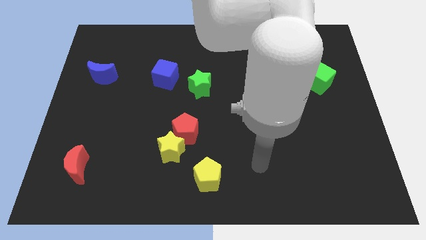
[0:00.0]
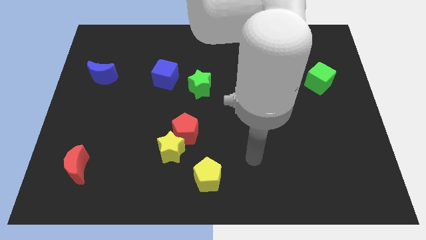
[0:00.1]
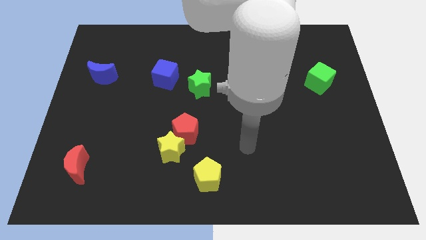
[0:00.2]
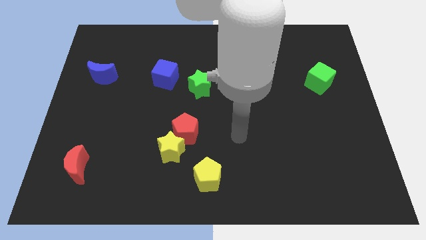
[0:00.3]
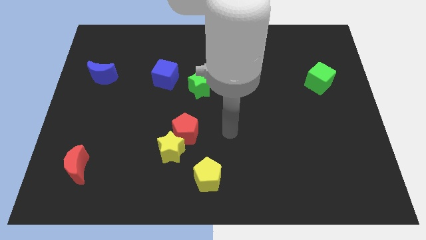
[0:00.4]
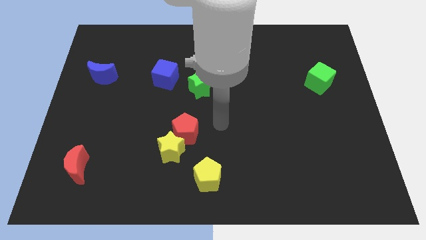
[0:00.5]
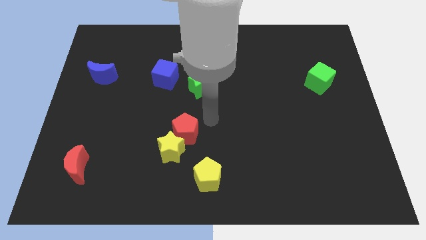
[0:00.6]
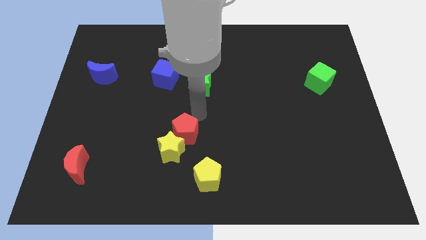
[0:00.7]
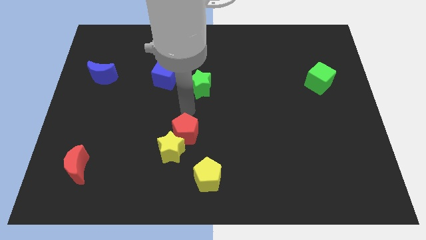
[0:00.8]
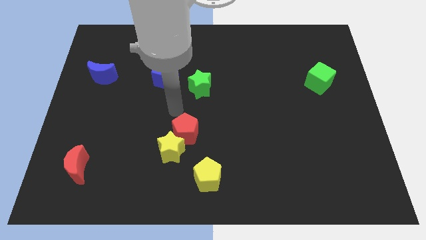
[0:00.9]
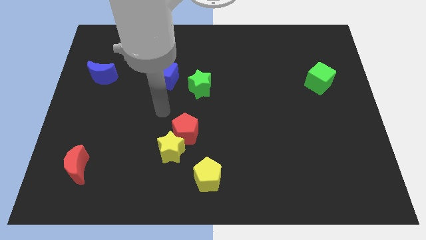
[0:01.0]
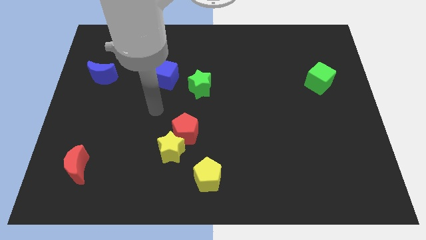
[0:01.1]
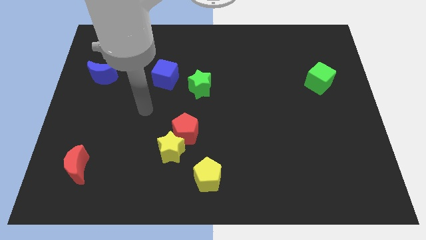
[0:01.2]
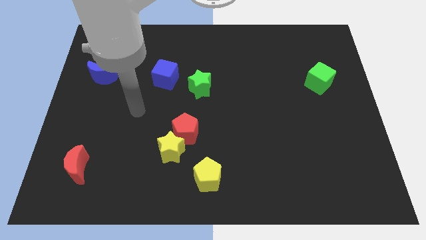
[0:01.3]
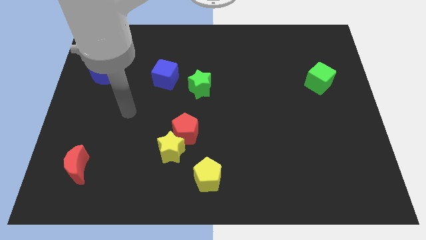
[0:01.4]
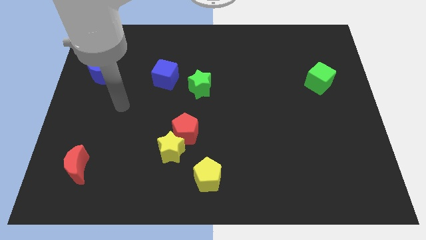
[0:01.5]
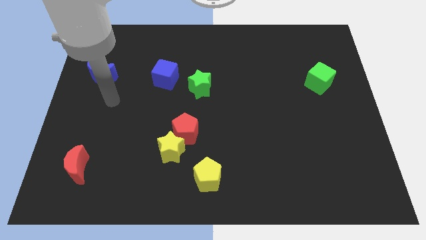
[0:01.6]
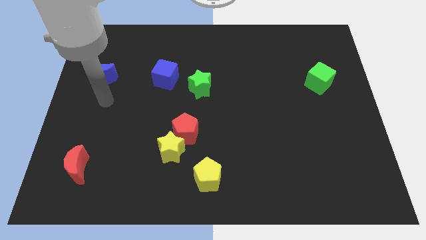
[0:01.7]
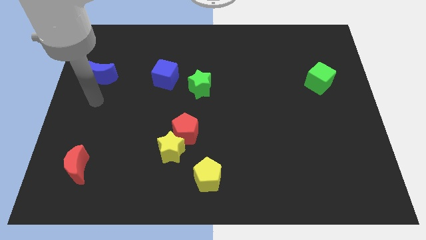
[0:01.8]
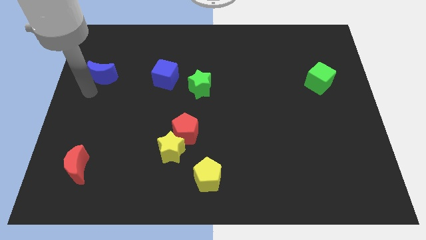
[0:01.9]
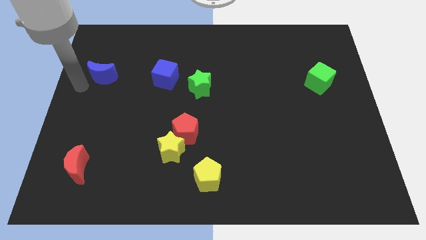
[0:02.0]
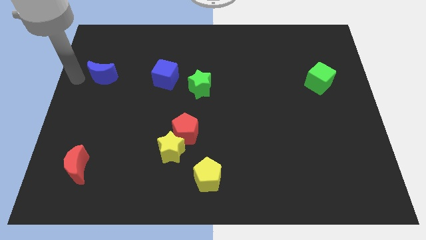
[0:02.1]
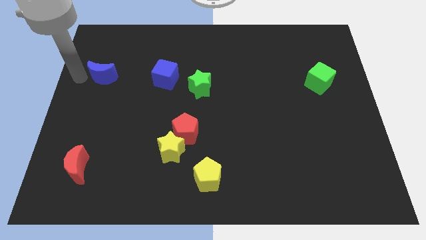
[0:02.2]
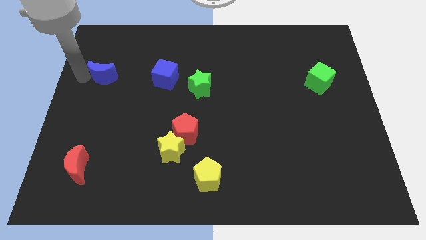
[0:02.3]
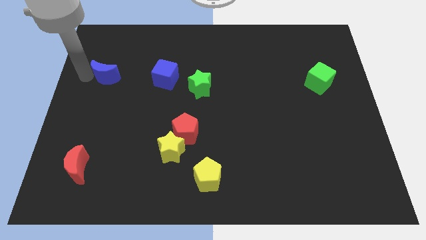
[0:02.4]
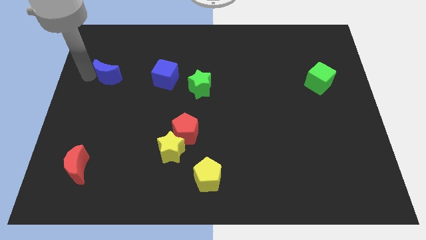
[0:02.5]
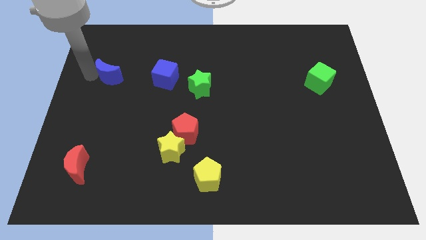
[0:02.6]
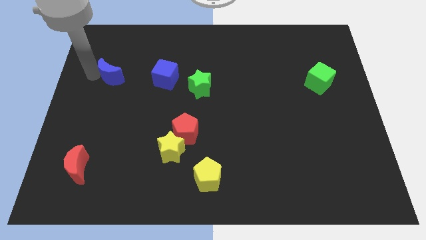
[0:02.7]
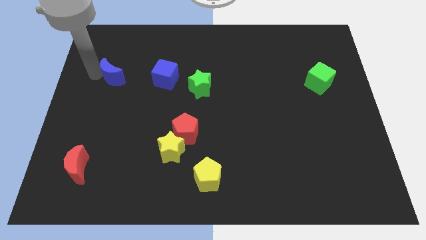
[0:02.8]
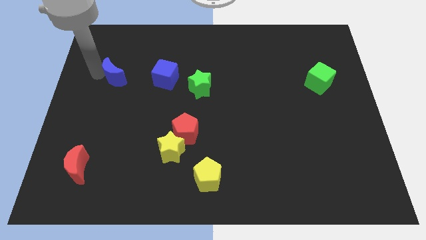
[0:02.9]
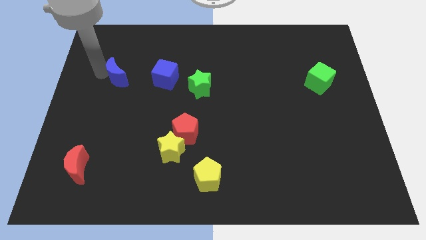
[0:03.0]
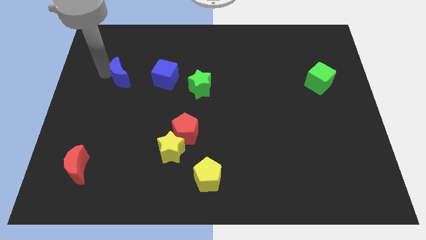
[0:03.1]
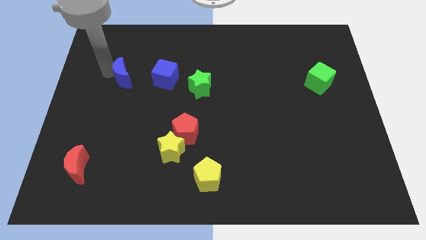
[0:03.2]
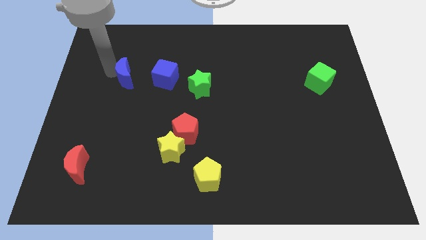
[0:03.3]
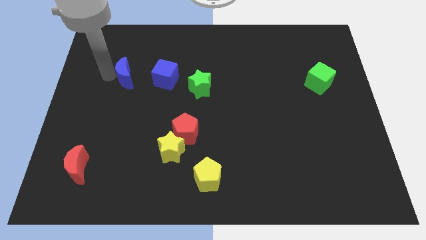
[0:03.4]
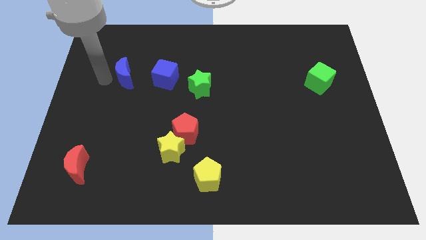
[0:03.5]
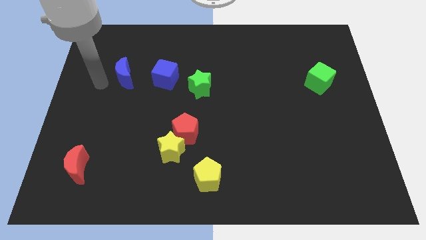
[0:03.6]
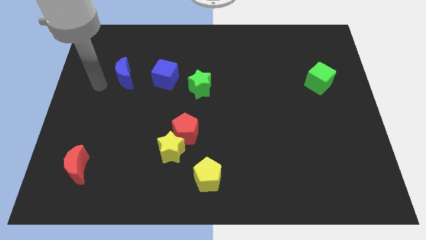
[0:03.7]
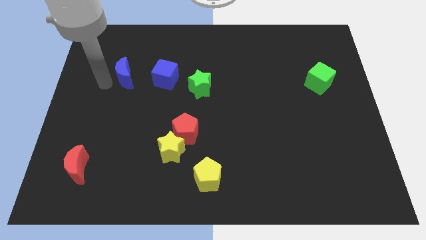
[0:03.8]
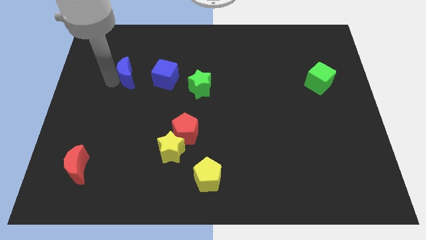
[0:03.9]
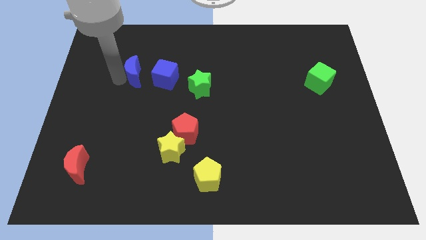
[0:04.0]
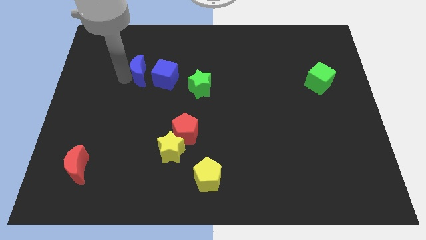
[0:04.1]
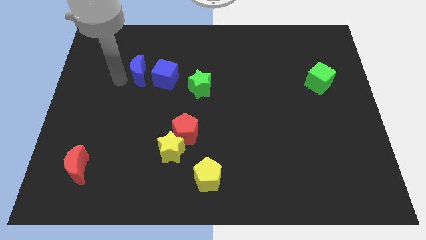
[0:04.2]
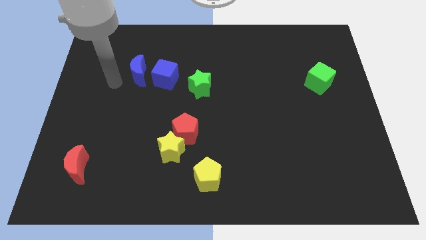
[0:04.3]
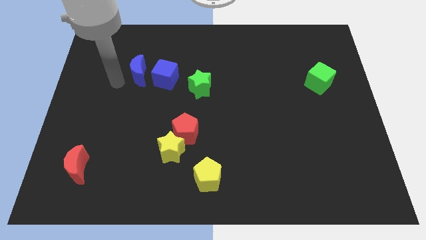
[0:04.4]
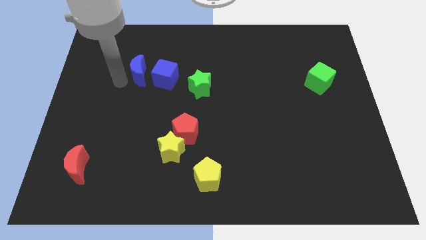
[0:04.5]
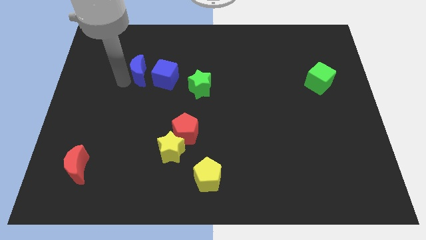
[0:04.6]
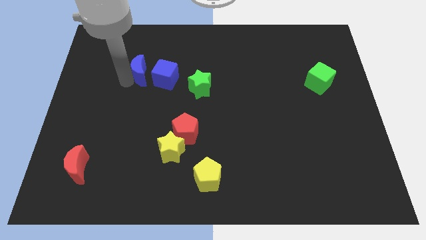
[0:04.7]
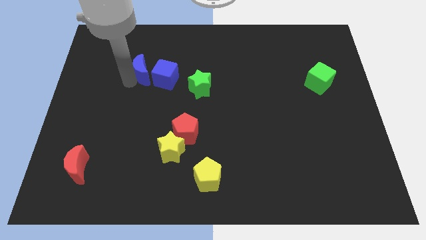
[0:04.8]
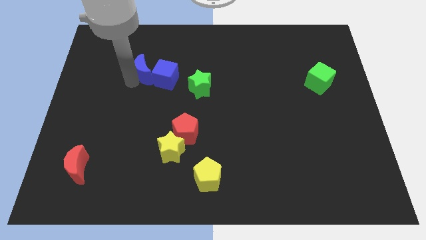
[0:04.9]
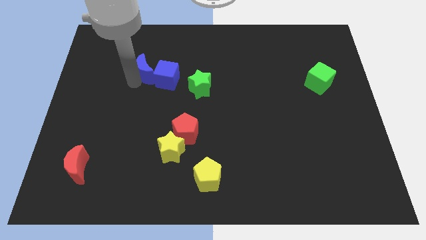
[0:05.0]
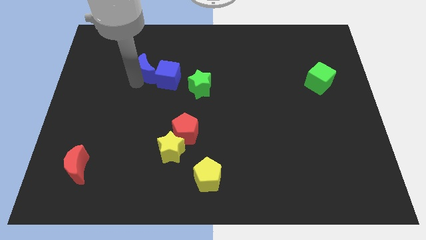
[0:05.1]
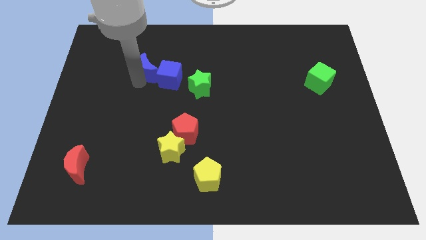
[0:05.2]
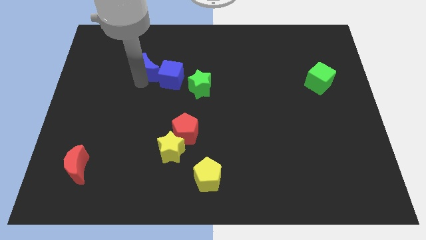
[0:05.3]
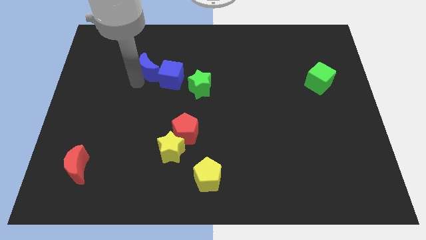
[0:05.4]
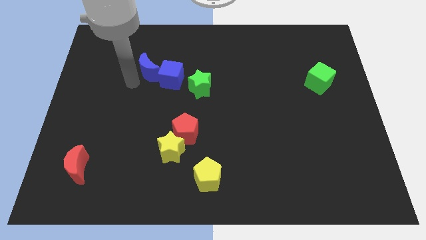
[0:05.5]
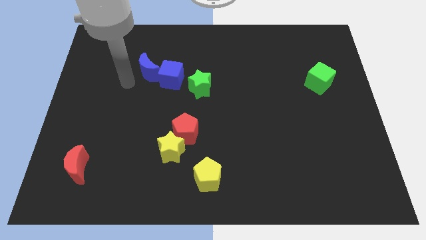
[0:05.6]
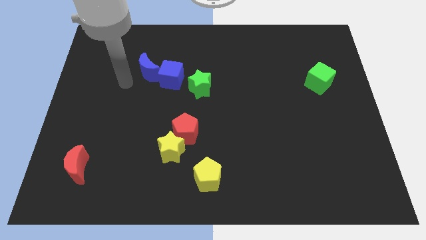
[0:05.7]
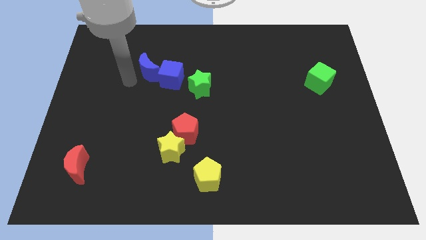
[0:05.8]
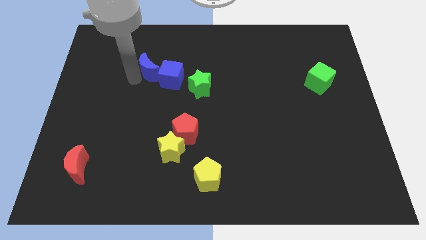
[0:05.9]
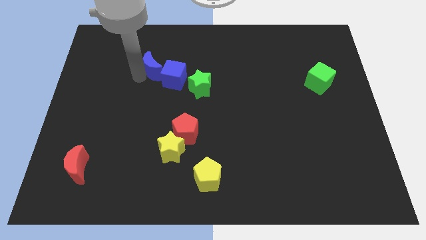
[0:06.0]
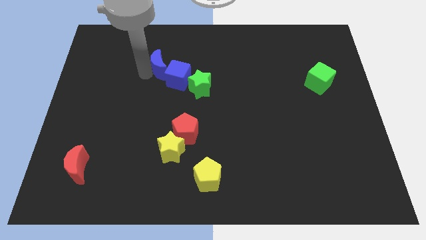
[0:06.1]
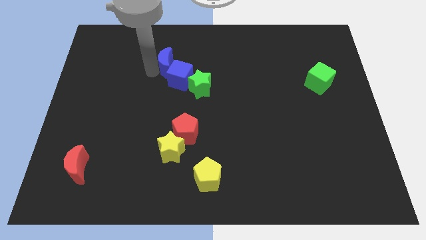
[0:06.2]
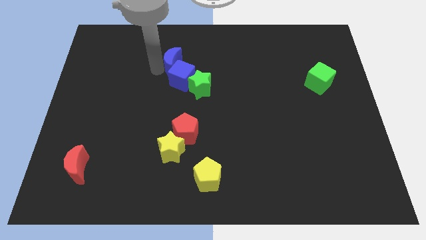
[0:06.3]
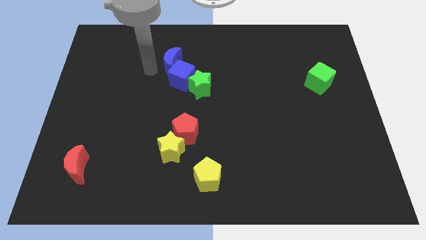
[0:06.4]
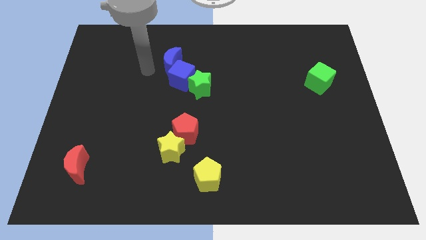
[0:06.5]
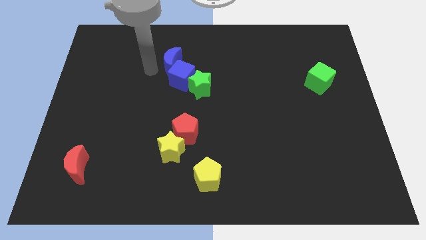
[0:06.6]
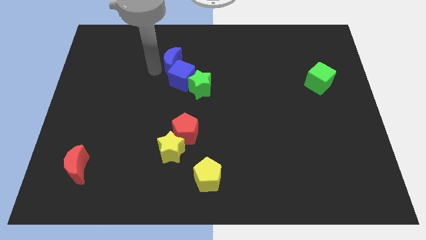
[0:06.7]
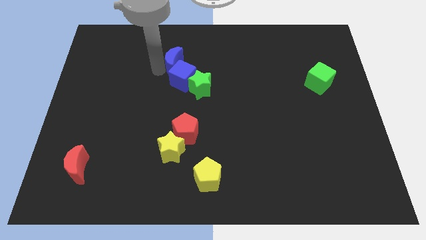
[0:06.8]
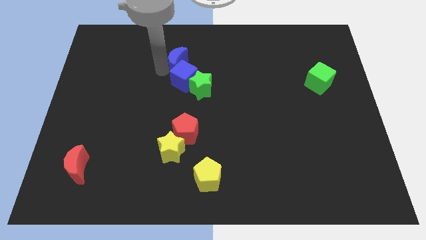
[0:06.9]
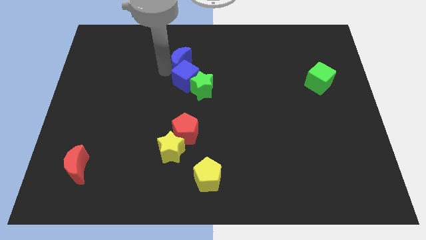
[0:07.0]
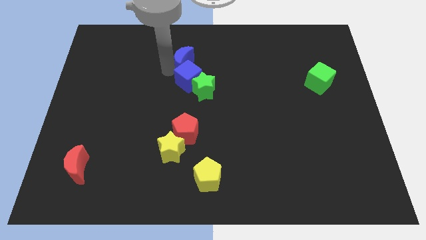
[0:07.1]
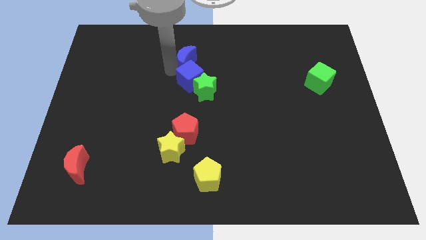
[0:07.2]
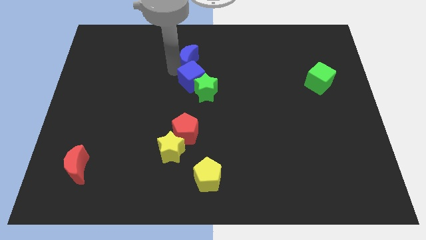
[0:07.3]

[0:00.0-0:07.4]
put the blue moon to the top side of the green star

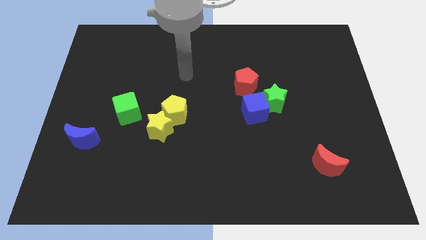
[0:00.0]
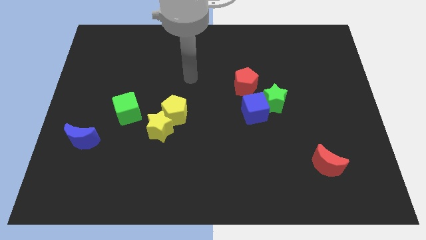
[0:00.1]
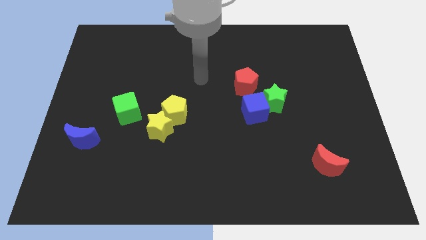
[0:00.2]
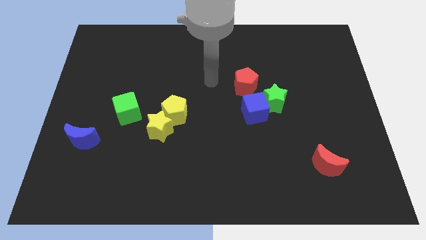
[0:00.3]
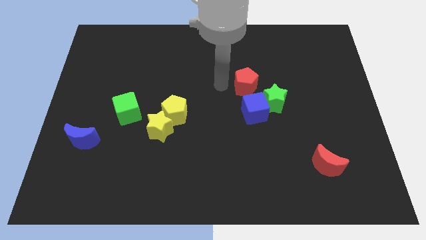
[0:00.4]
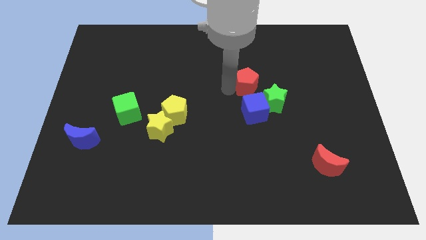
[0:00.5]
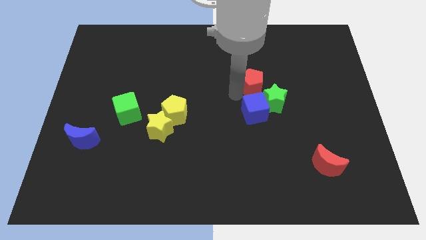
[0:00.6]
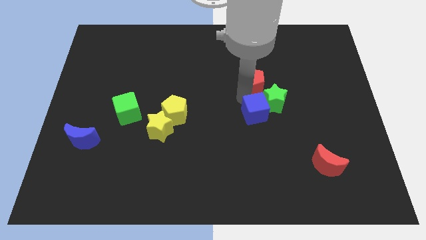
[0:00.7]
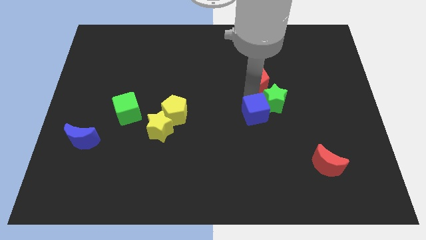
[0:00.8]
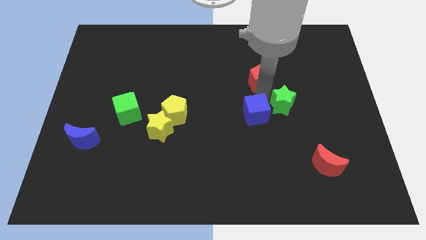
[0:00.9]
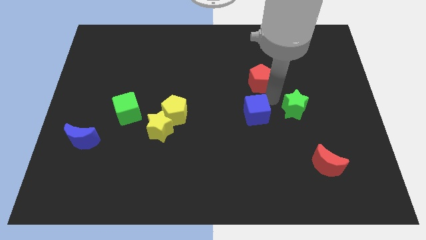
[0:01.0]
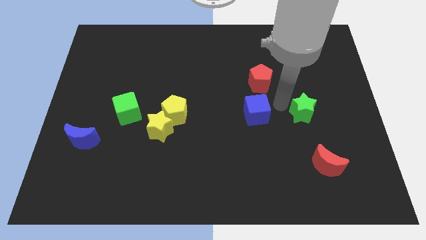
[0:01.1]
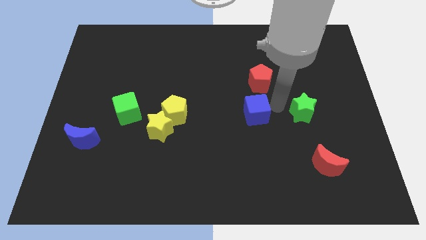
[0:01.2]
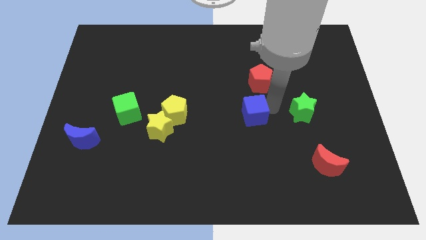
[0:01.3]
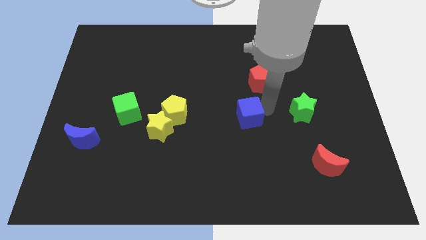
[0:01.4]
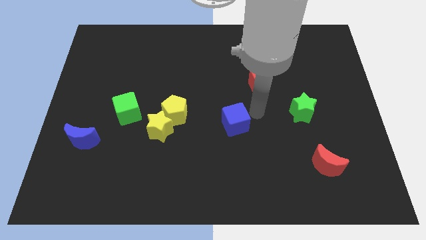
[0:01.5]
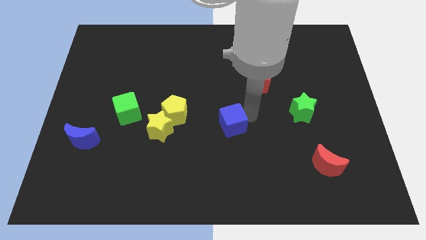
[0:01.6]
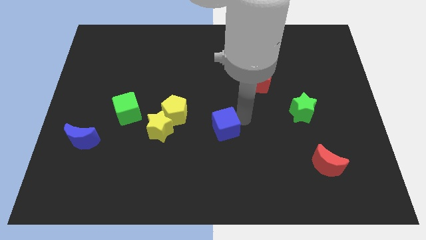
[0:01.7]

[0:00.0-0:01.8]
slide the blue cube right of the yellow star
